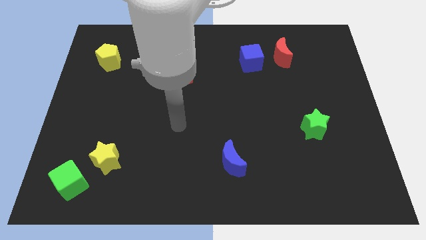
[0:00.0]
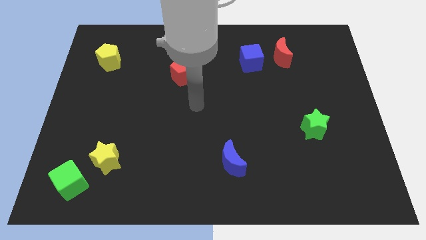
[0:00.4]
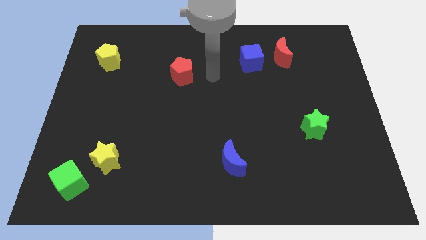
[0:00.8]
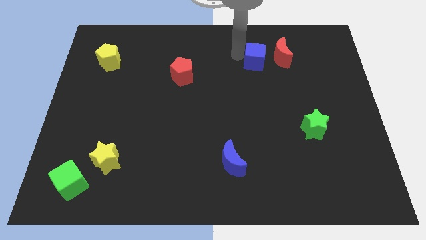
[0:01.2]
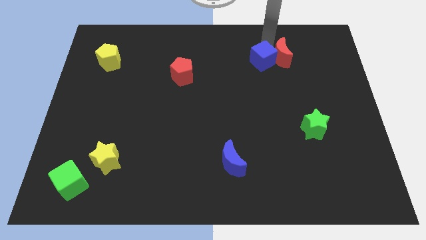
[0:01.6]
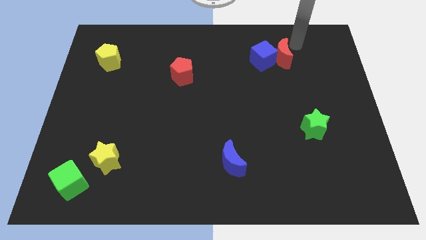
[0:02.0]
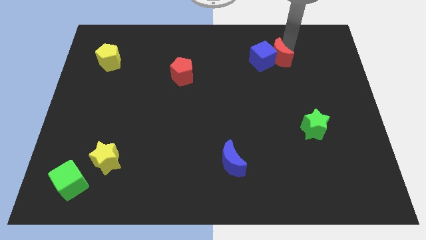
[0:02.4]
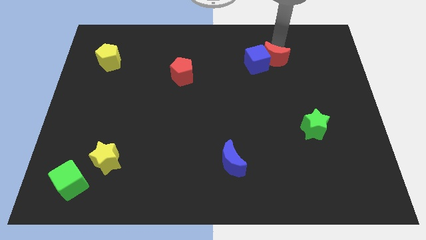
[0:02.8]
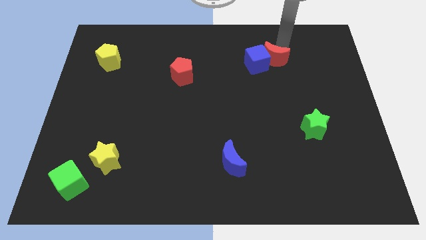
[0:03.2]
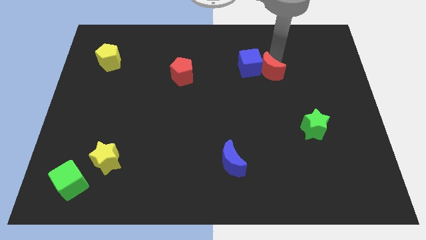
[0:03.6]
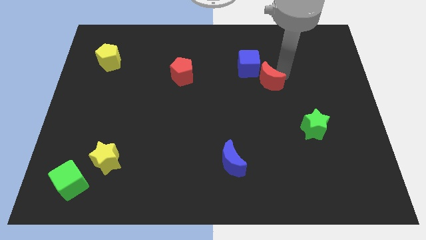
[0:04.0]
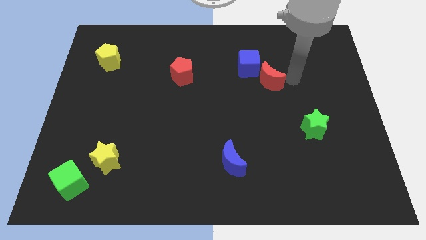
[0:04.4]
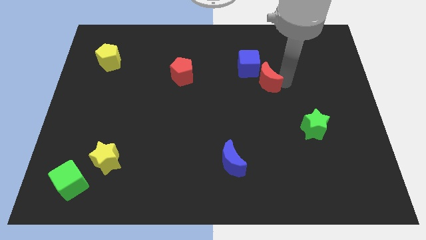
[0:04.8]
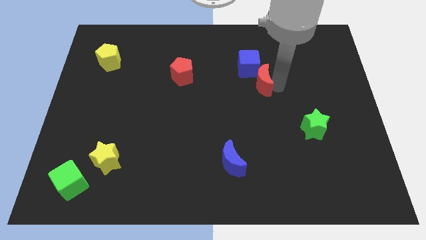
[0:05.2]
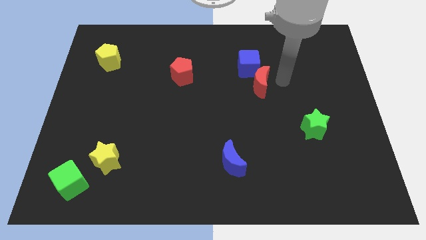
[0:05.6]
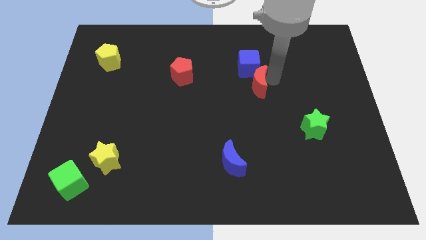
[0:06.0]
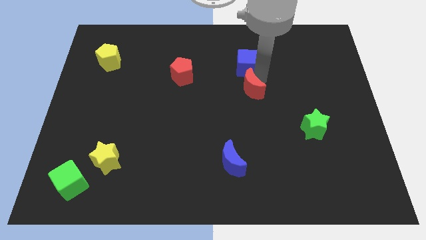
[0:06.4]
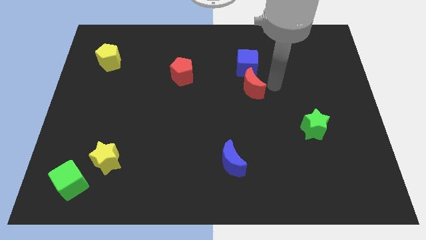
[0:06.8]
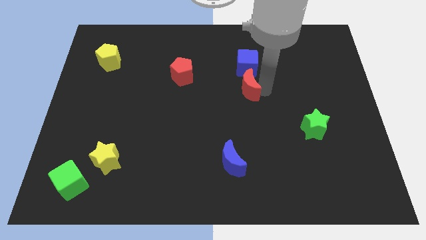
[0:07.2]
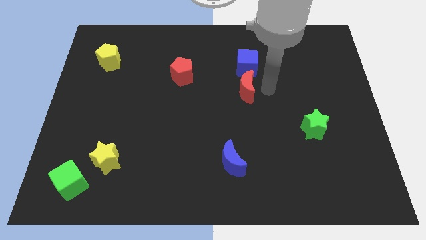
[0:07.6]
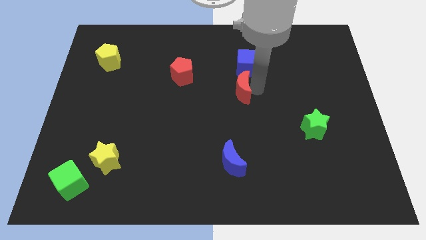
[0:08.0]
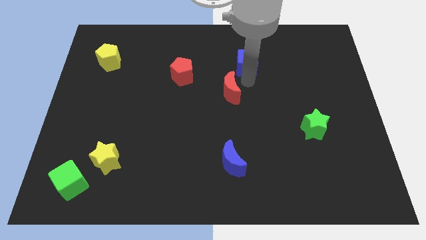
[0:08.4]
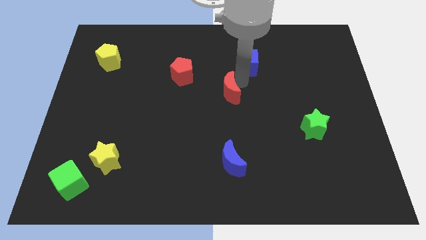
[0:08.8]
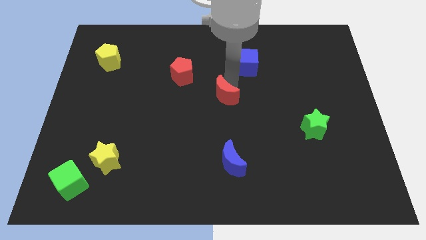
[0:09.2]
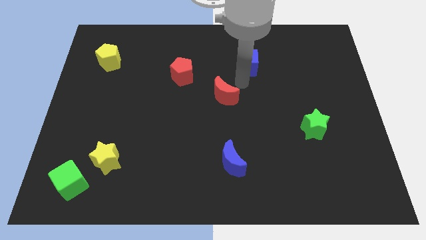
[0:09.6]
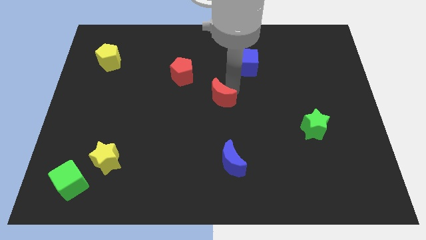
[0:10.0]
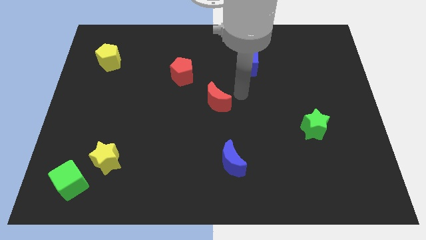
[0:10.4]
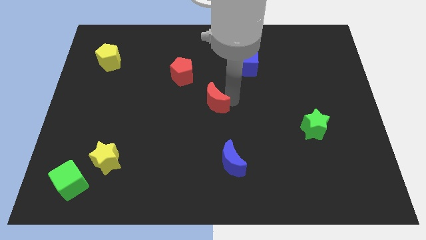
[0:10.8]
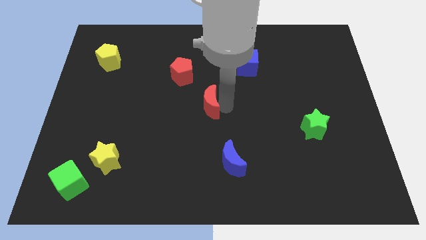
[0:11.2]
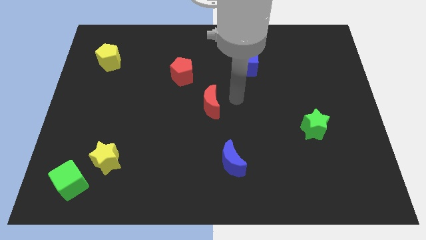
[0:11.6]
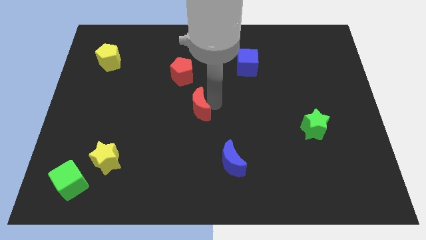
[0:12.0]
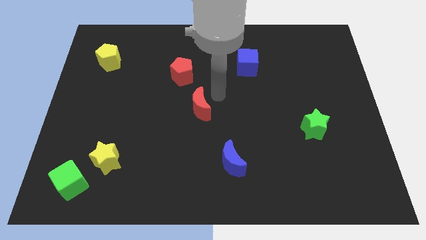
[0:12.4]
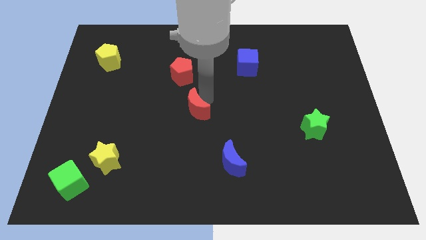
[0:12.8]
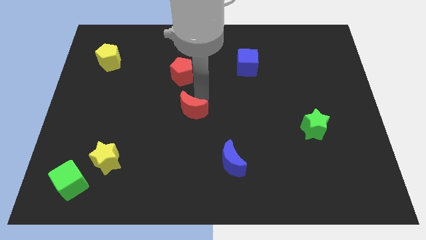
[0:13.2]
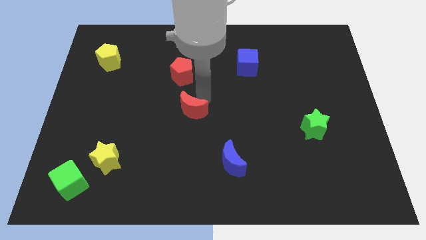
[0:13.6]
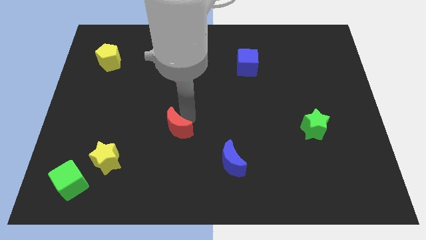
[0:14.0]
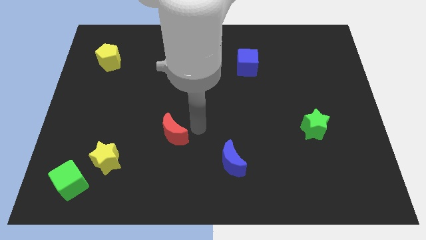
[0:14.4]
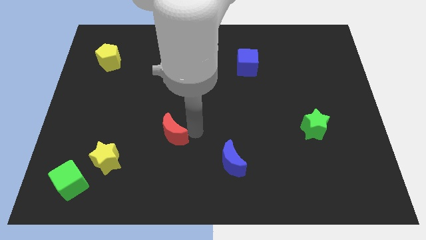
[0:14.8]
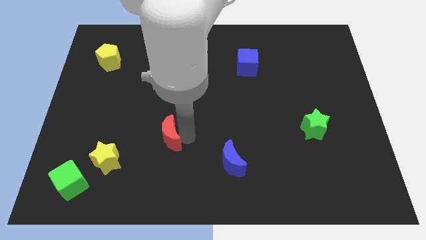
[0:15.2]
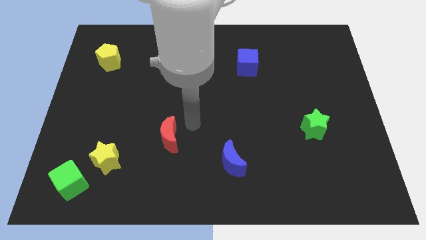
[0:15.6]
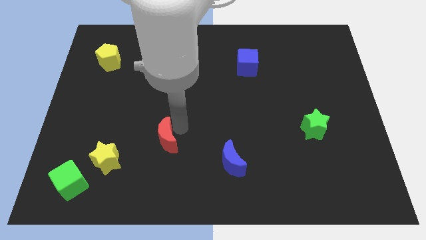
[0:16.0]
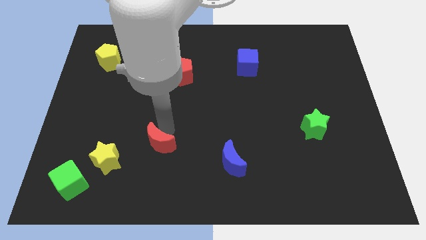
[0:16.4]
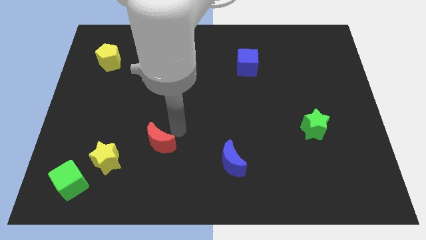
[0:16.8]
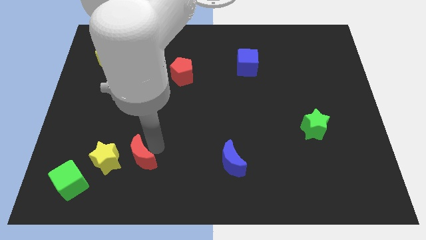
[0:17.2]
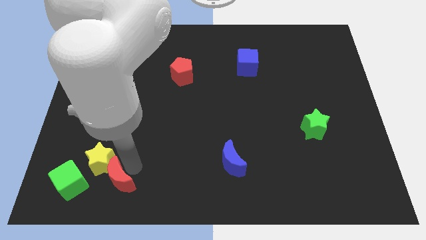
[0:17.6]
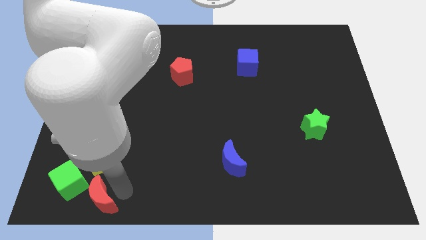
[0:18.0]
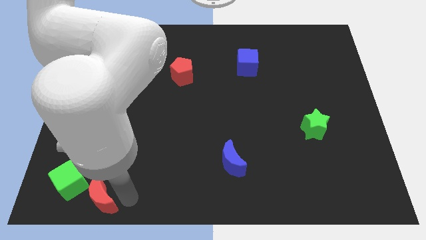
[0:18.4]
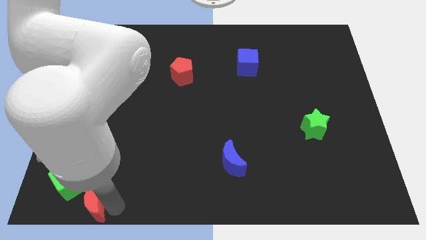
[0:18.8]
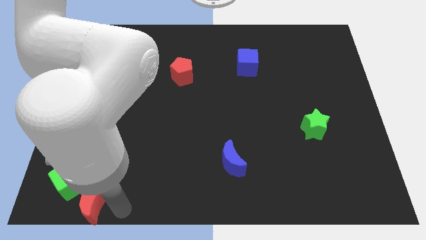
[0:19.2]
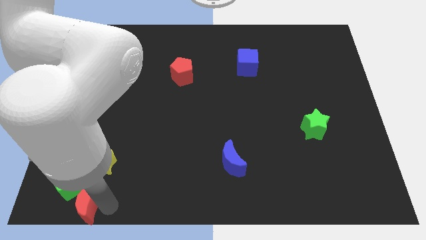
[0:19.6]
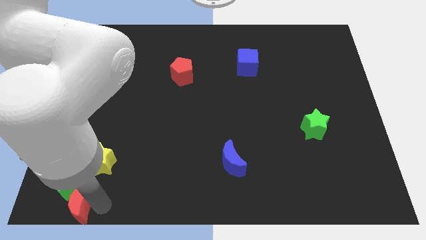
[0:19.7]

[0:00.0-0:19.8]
put the red moon to the bottom left corner

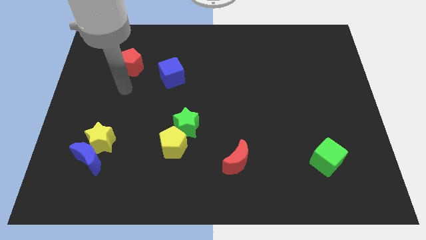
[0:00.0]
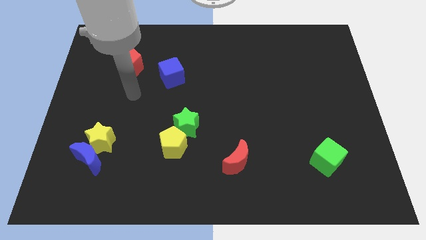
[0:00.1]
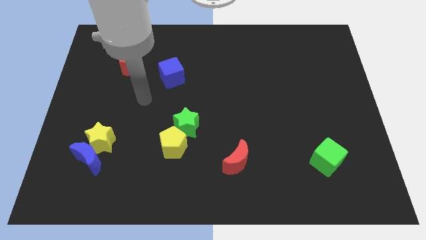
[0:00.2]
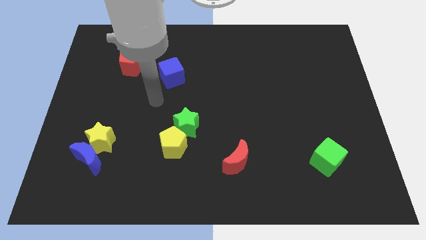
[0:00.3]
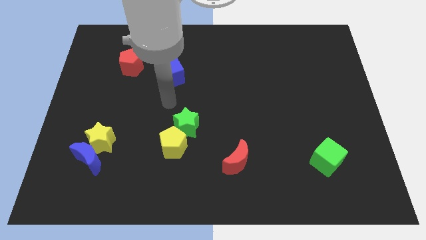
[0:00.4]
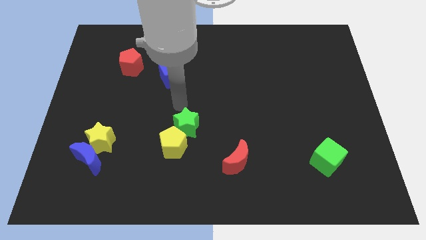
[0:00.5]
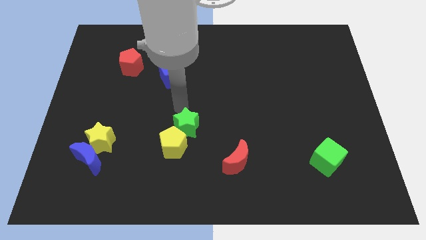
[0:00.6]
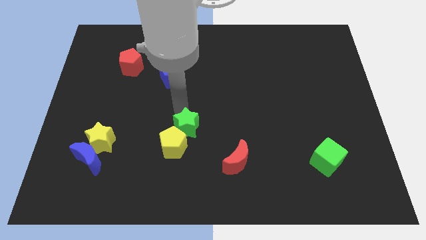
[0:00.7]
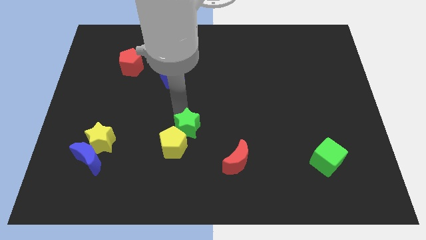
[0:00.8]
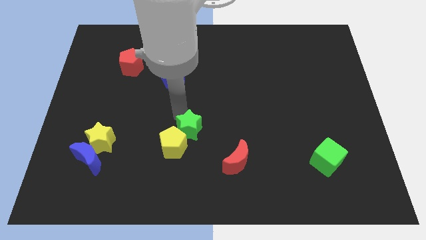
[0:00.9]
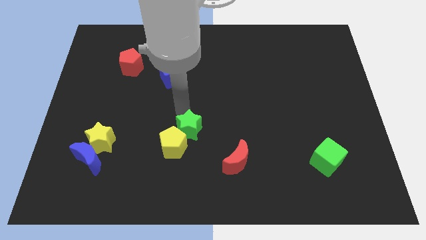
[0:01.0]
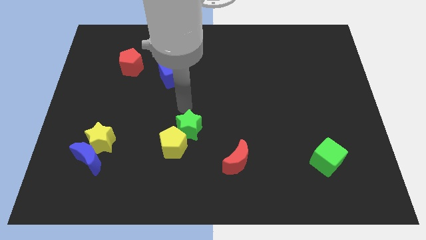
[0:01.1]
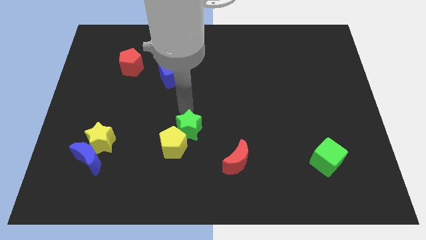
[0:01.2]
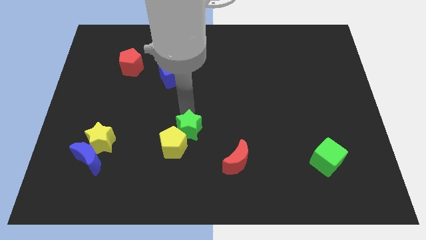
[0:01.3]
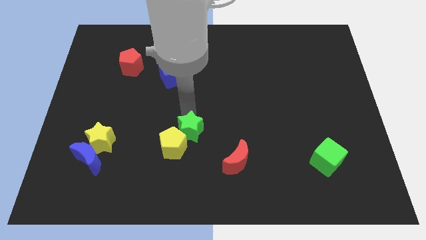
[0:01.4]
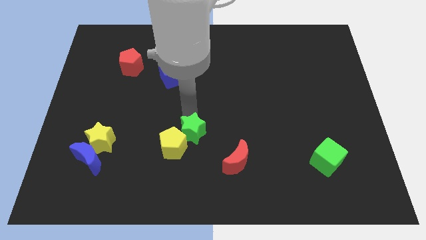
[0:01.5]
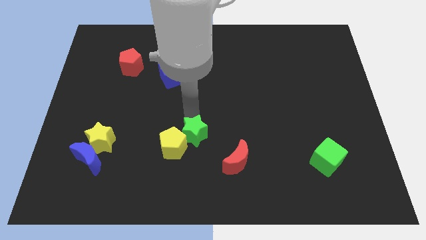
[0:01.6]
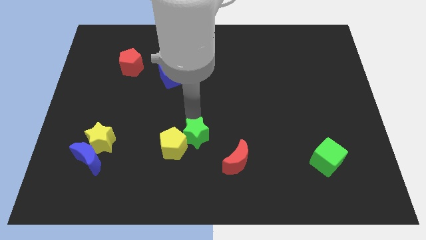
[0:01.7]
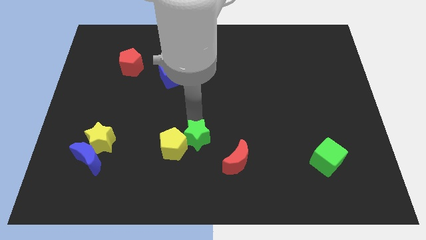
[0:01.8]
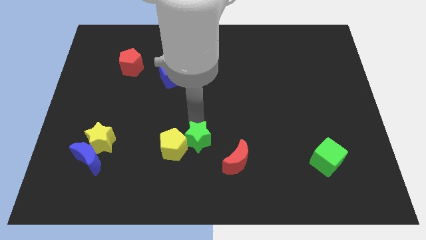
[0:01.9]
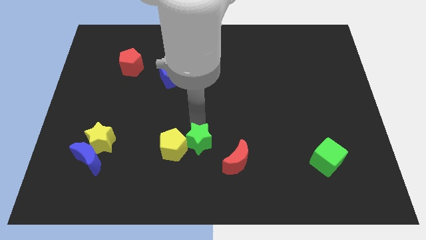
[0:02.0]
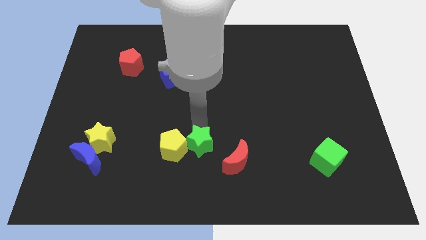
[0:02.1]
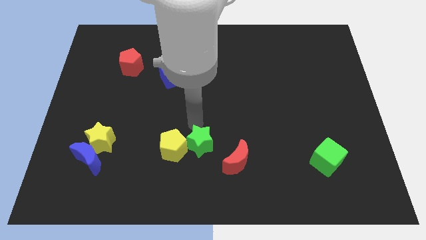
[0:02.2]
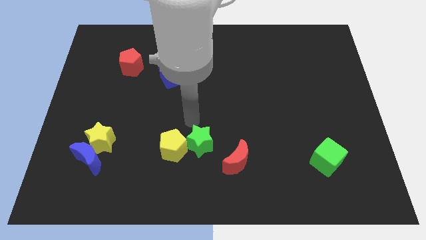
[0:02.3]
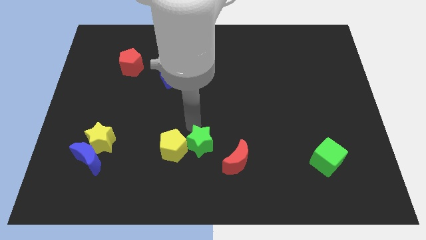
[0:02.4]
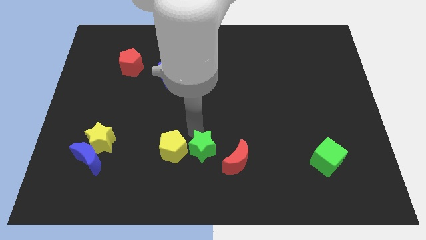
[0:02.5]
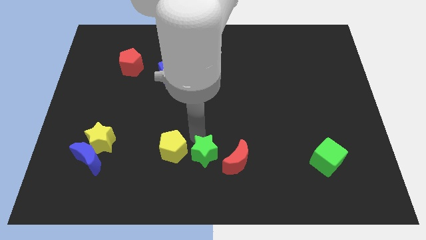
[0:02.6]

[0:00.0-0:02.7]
slide the green star to the bottom side
